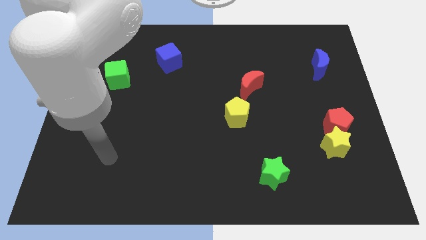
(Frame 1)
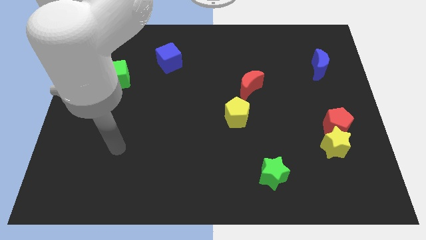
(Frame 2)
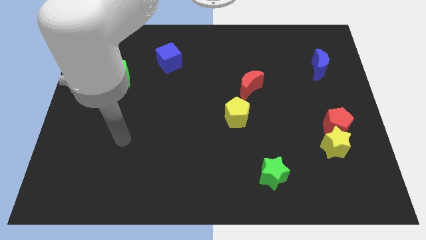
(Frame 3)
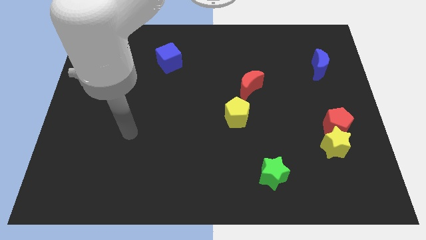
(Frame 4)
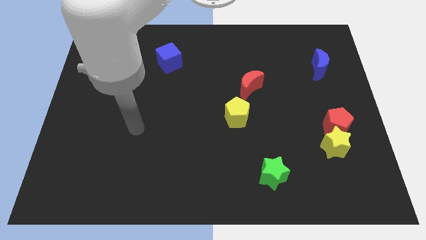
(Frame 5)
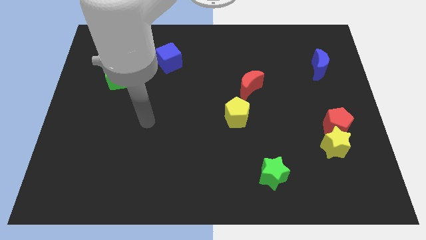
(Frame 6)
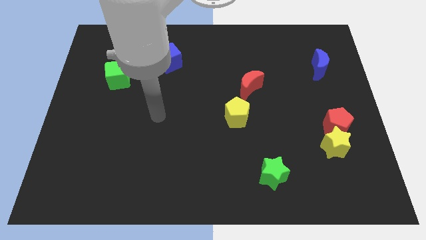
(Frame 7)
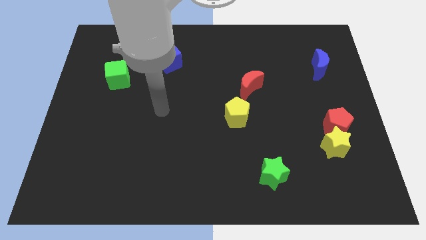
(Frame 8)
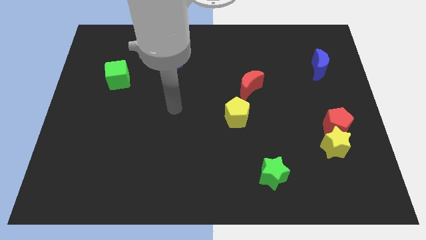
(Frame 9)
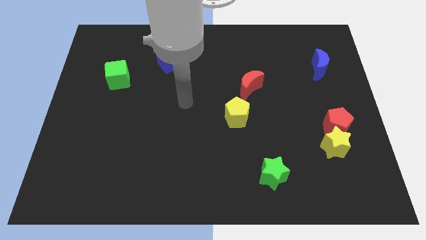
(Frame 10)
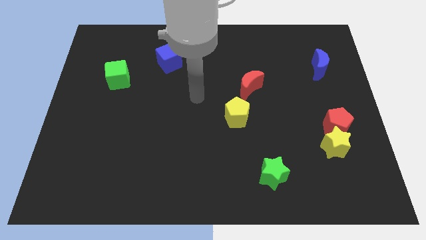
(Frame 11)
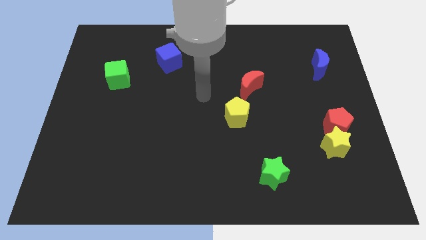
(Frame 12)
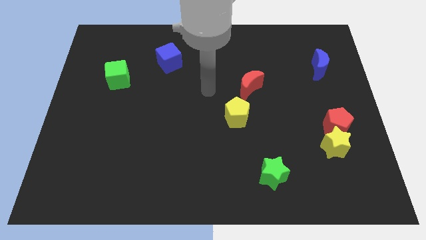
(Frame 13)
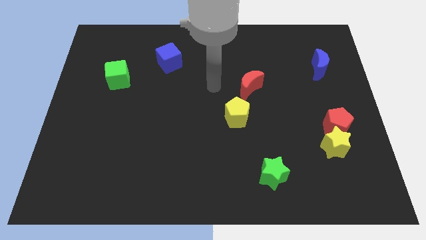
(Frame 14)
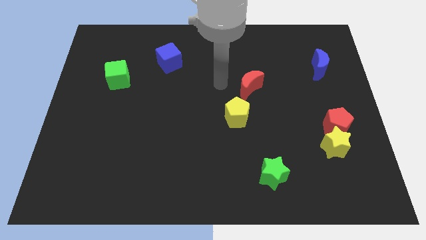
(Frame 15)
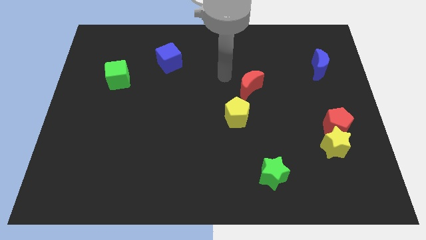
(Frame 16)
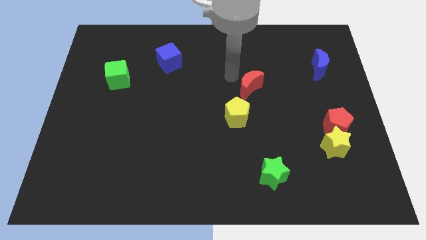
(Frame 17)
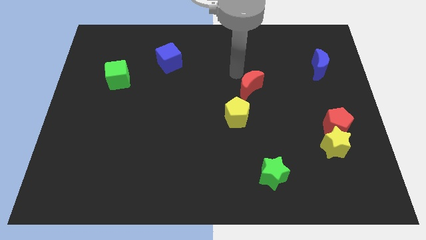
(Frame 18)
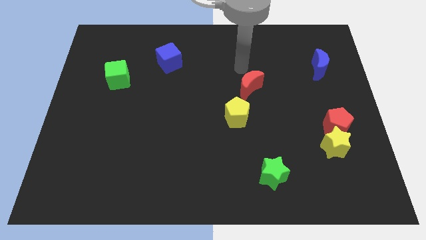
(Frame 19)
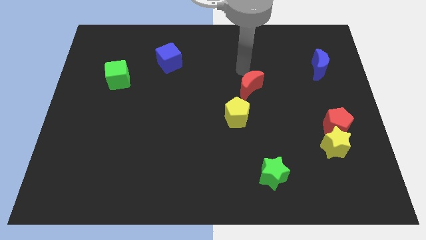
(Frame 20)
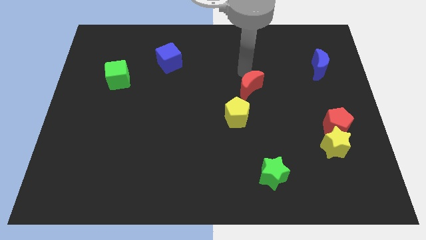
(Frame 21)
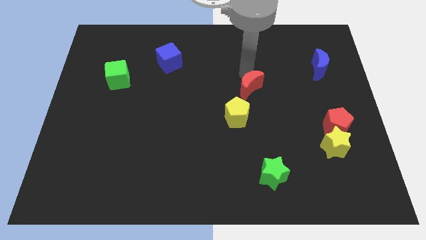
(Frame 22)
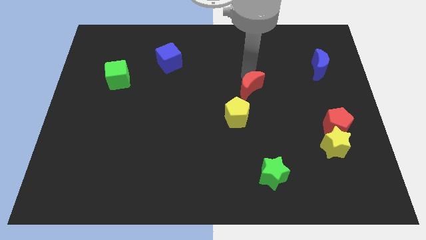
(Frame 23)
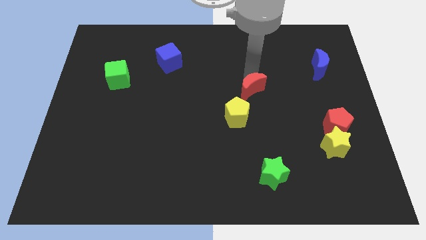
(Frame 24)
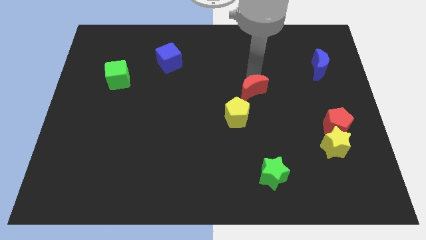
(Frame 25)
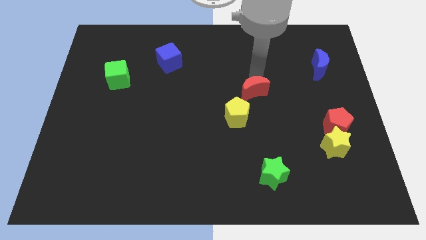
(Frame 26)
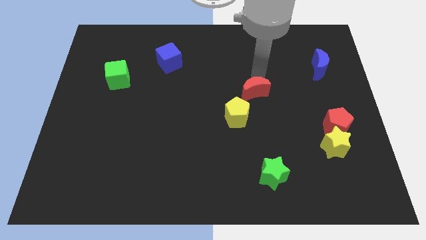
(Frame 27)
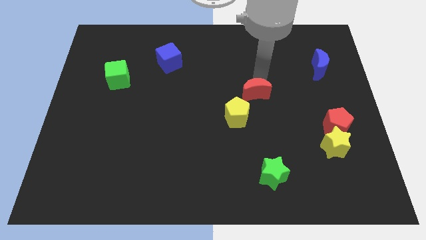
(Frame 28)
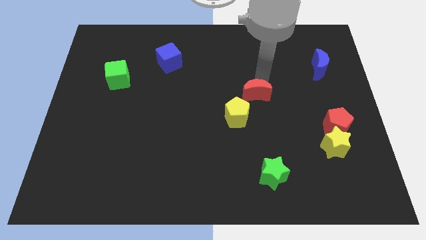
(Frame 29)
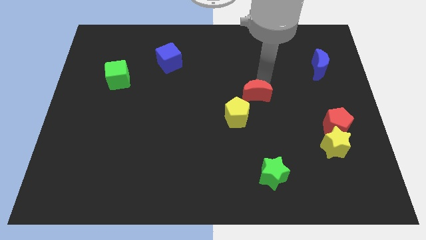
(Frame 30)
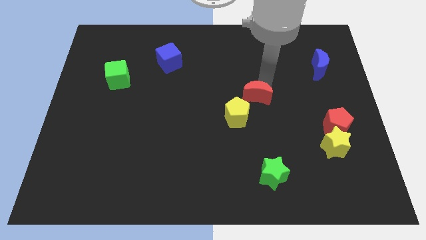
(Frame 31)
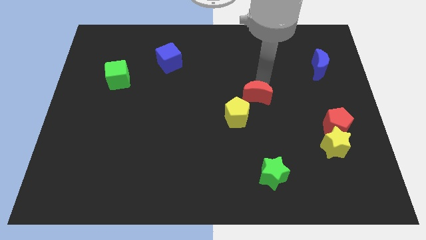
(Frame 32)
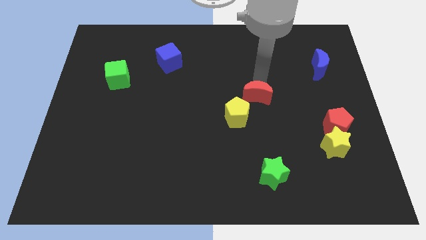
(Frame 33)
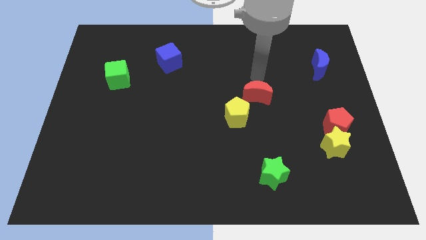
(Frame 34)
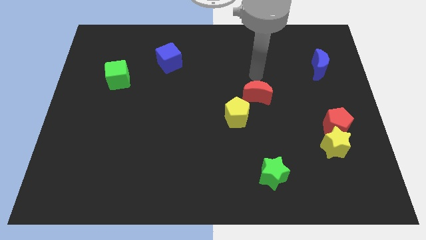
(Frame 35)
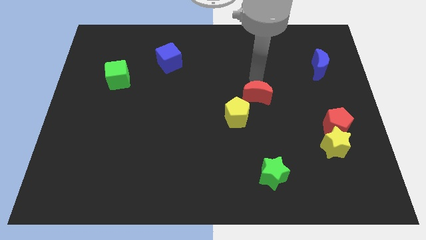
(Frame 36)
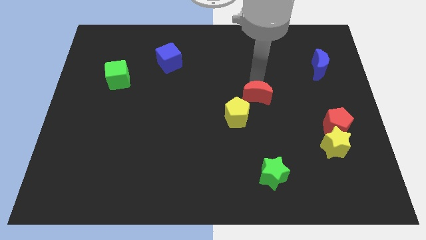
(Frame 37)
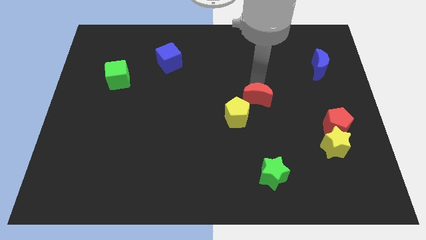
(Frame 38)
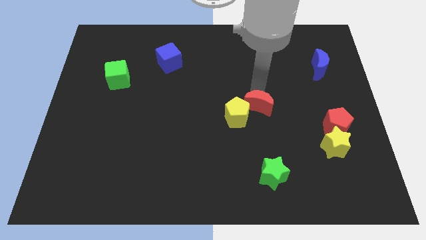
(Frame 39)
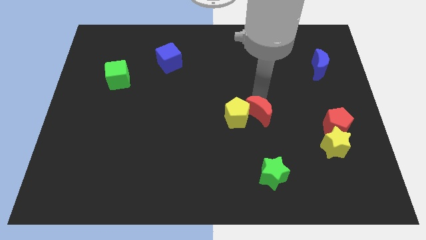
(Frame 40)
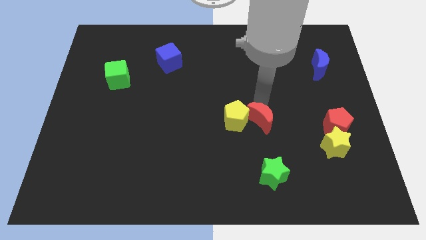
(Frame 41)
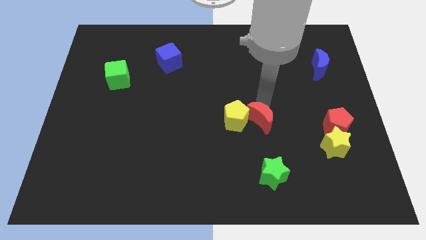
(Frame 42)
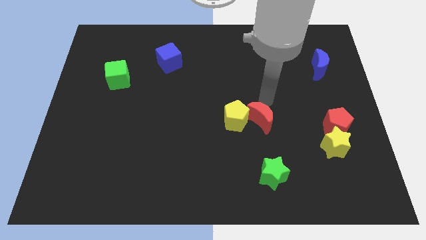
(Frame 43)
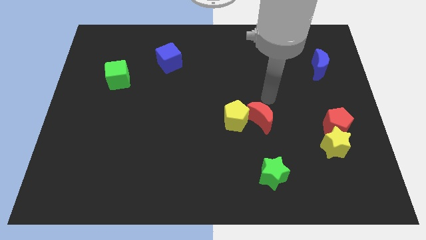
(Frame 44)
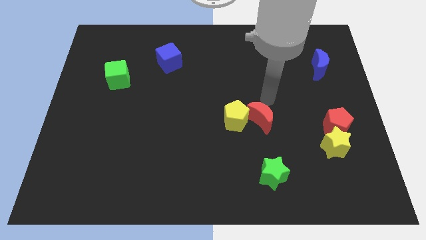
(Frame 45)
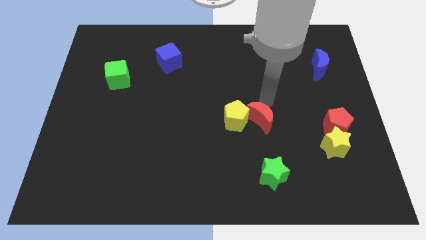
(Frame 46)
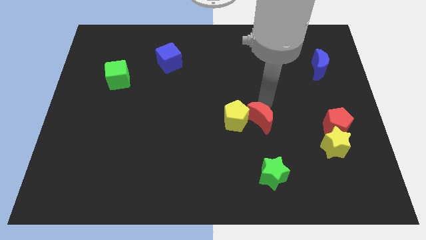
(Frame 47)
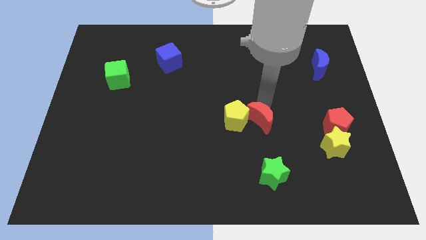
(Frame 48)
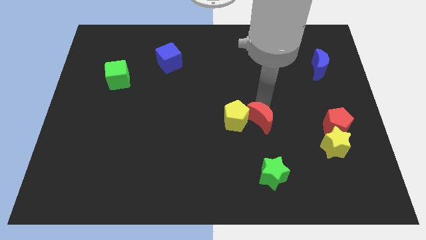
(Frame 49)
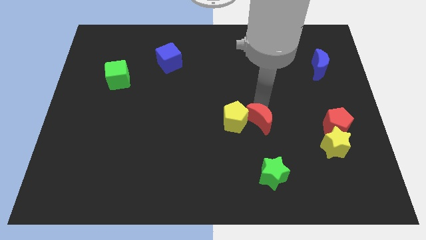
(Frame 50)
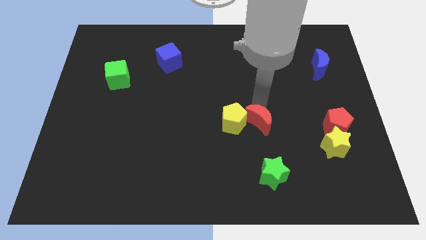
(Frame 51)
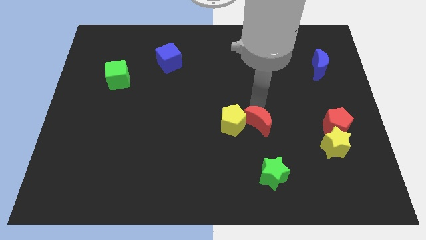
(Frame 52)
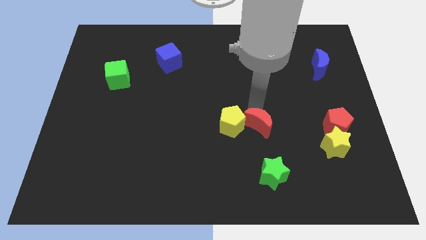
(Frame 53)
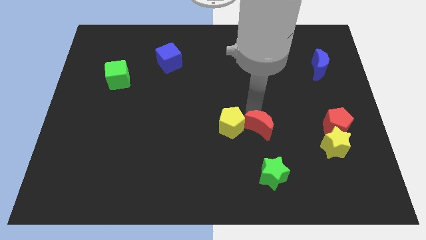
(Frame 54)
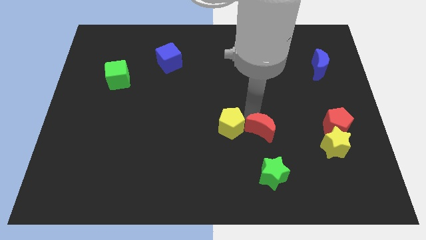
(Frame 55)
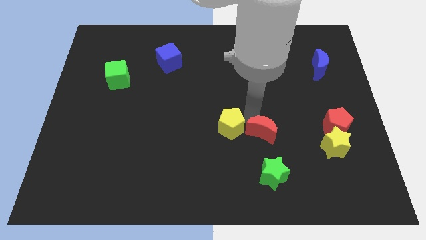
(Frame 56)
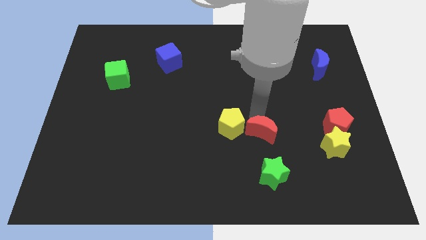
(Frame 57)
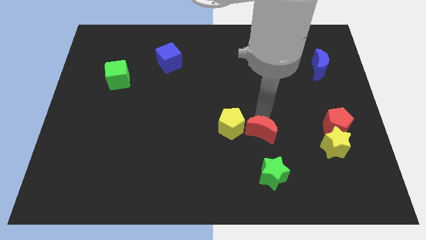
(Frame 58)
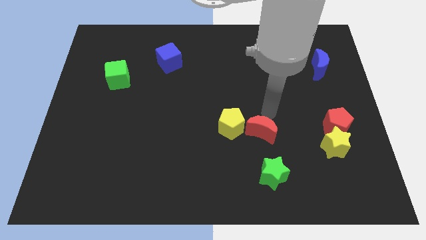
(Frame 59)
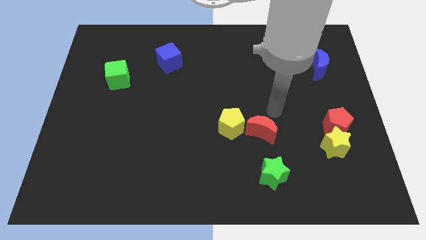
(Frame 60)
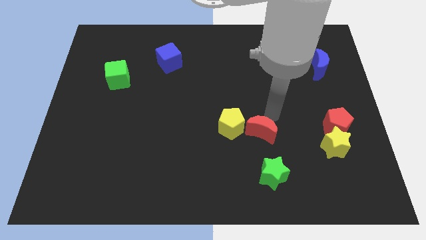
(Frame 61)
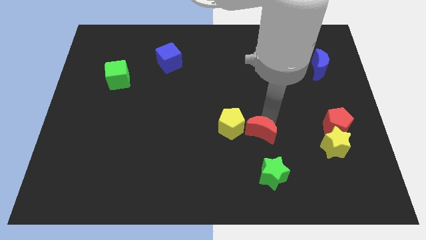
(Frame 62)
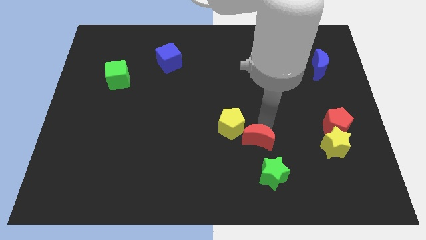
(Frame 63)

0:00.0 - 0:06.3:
push the red moon to the top left of the green star

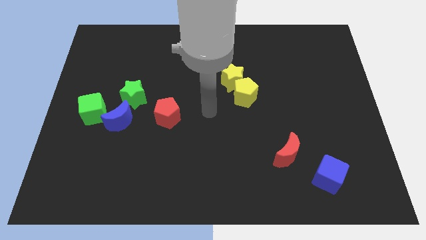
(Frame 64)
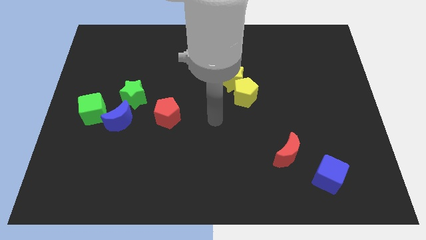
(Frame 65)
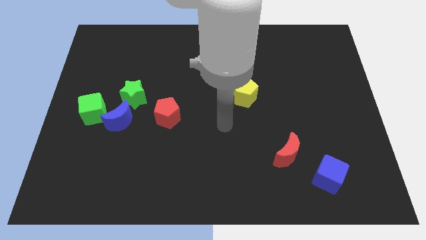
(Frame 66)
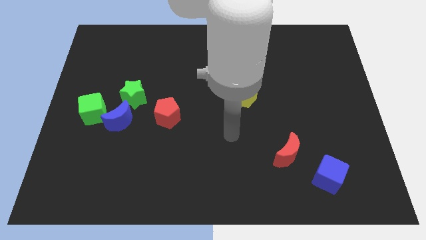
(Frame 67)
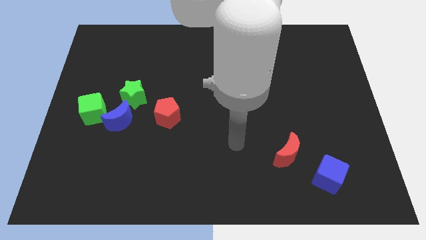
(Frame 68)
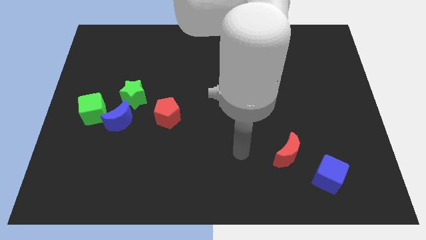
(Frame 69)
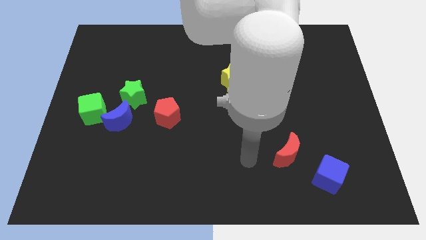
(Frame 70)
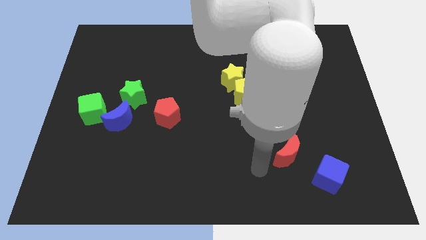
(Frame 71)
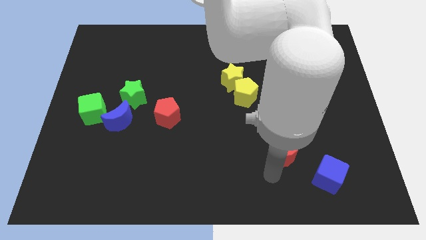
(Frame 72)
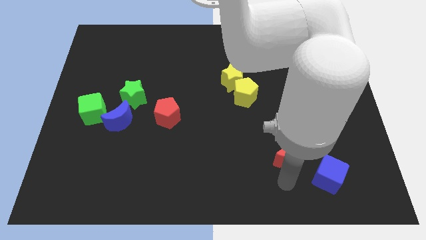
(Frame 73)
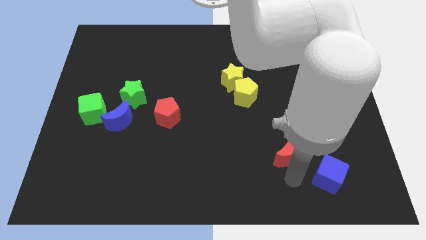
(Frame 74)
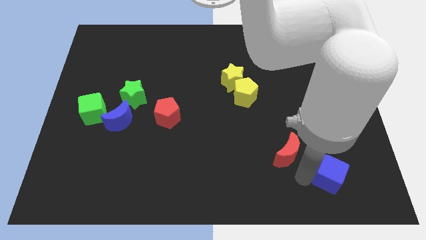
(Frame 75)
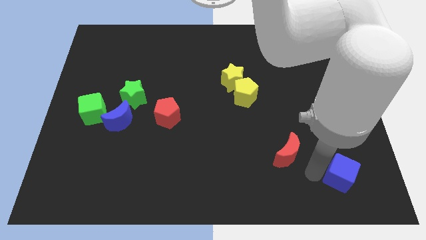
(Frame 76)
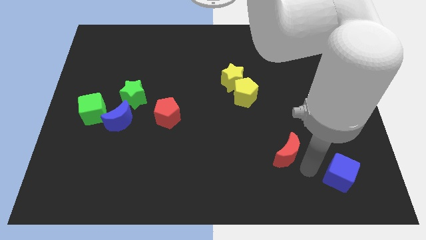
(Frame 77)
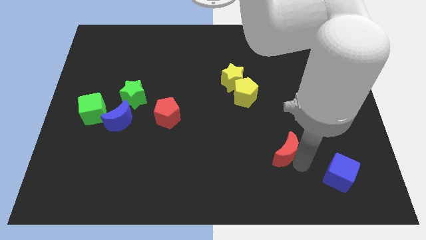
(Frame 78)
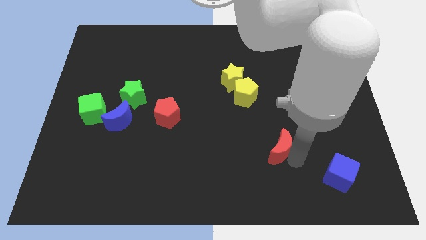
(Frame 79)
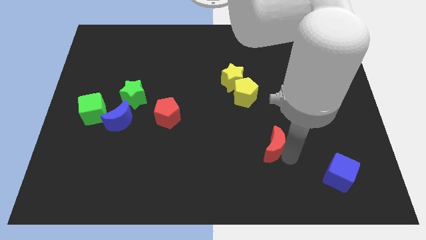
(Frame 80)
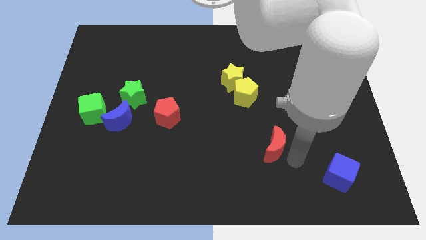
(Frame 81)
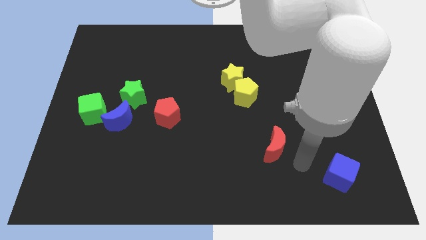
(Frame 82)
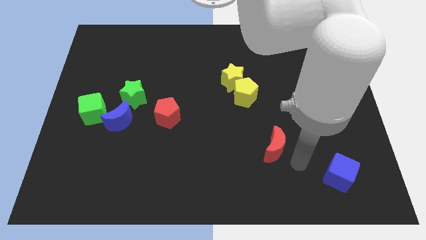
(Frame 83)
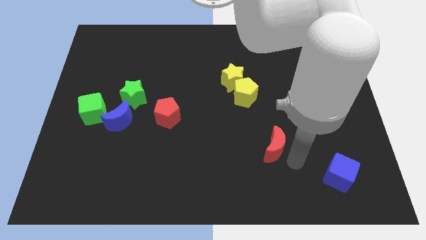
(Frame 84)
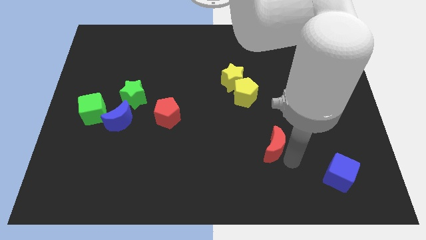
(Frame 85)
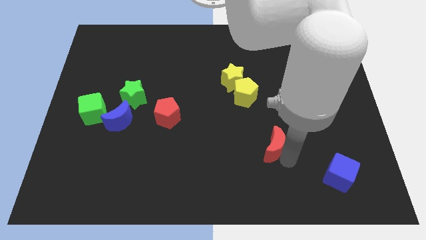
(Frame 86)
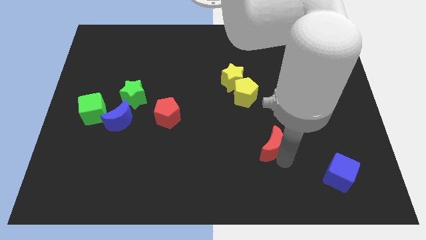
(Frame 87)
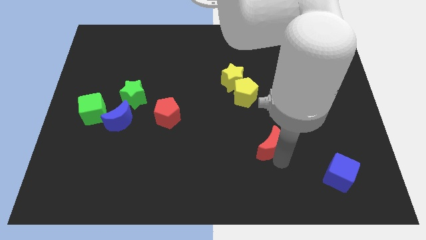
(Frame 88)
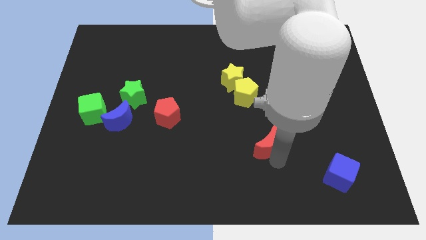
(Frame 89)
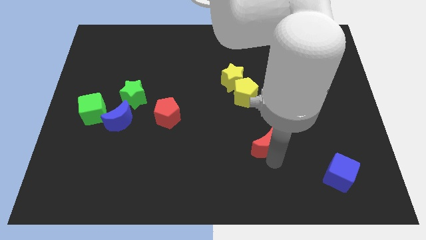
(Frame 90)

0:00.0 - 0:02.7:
push the red moon to the bottom of the yellow pentagon
